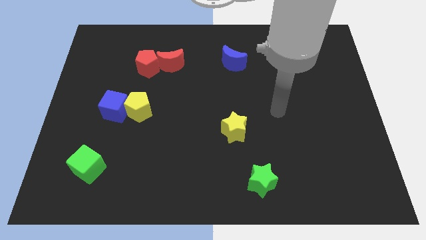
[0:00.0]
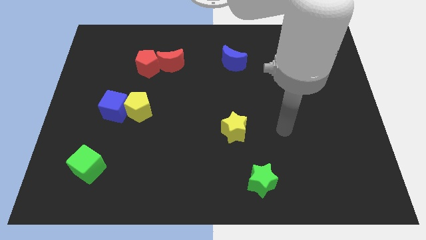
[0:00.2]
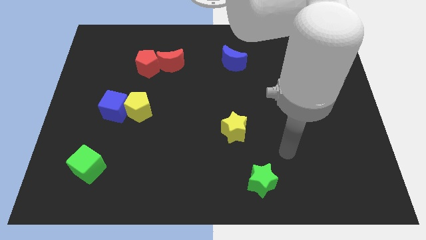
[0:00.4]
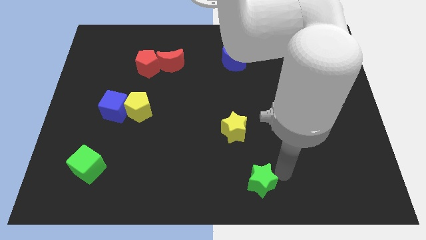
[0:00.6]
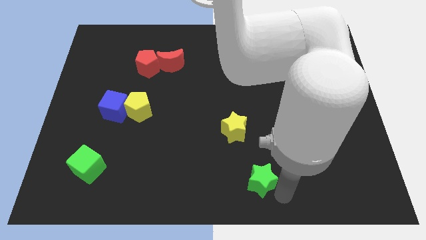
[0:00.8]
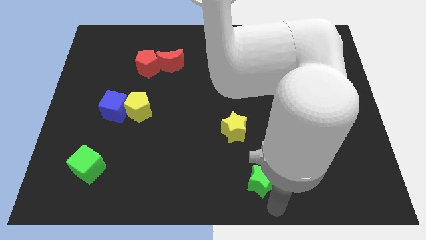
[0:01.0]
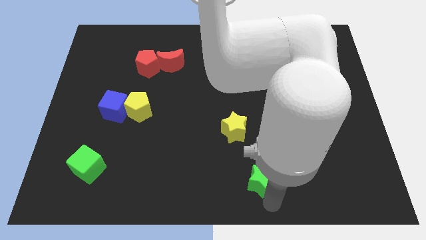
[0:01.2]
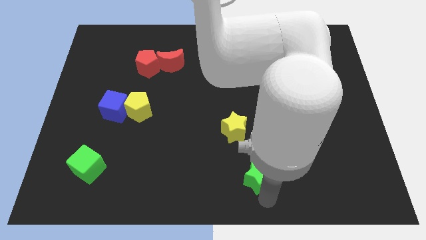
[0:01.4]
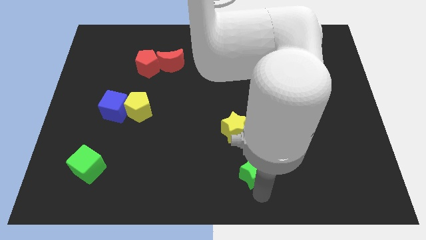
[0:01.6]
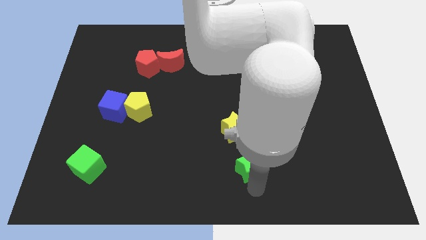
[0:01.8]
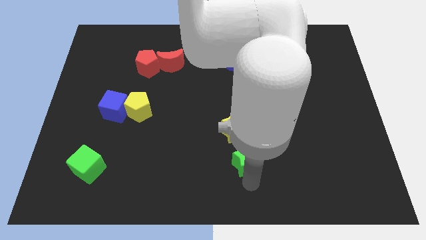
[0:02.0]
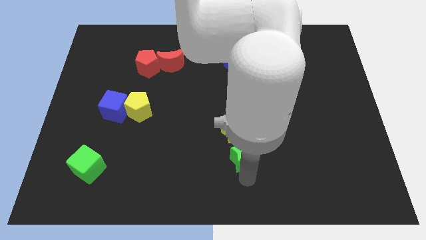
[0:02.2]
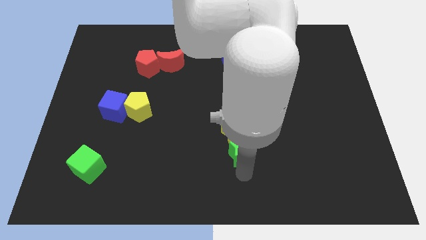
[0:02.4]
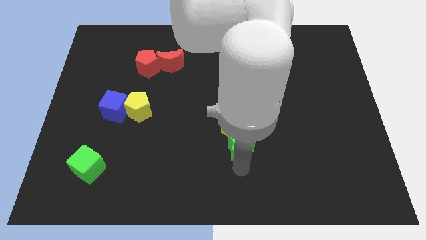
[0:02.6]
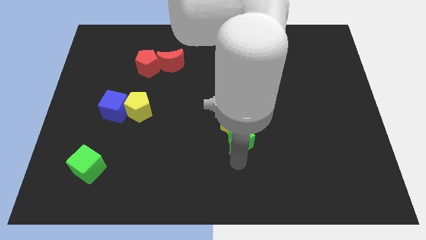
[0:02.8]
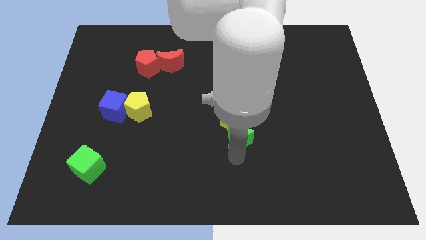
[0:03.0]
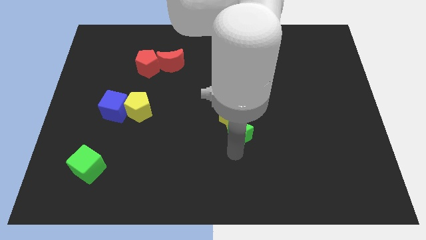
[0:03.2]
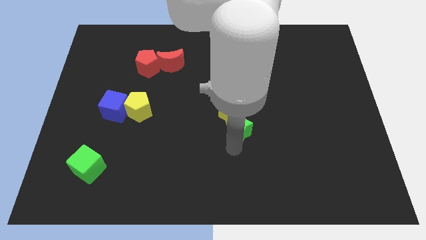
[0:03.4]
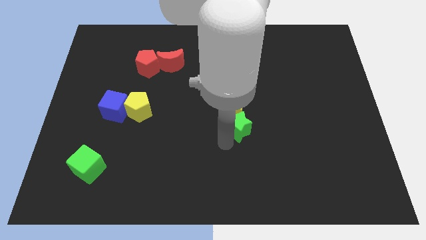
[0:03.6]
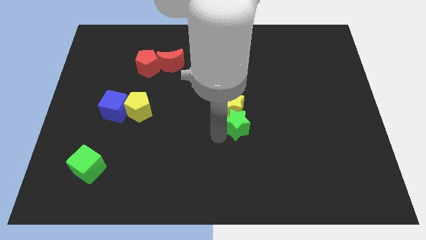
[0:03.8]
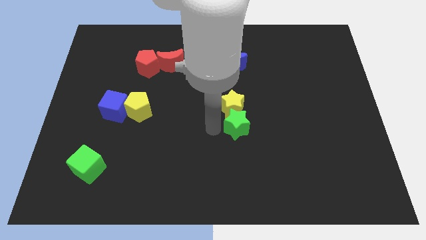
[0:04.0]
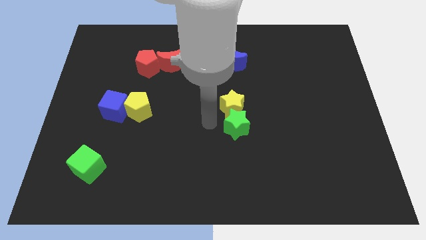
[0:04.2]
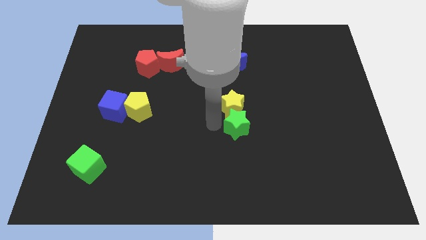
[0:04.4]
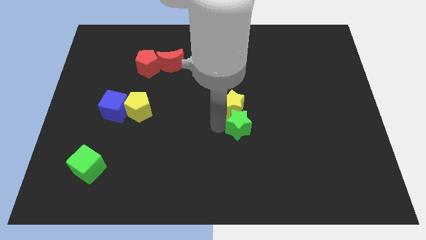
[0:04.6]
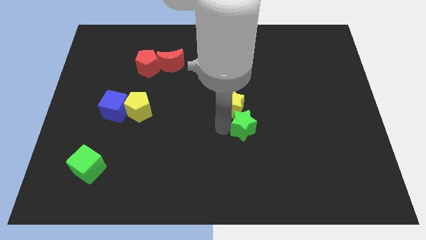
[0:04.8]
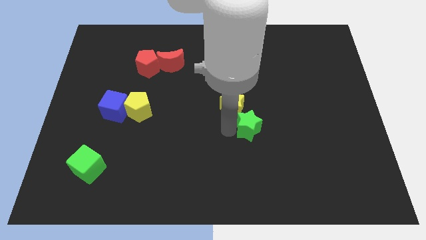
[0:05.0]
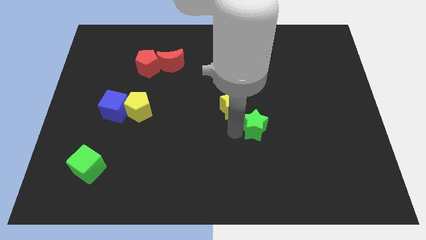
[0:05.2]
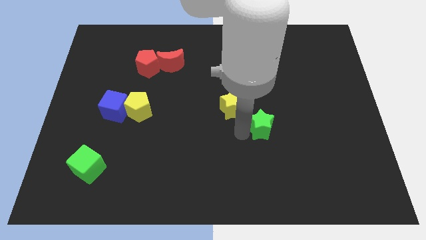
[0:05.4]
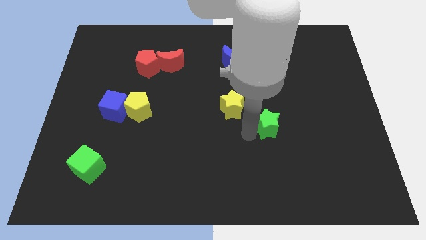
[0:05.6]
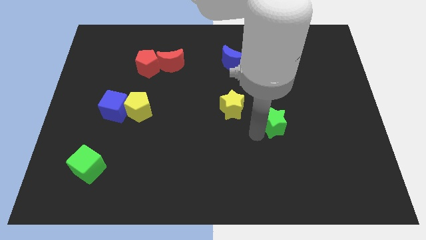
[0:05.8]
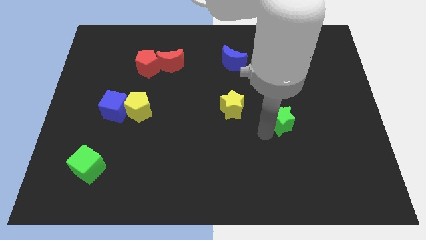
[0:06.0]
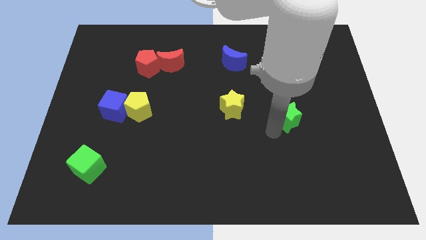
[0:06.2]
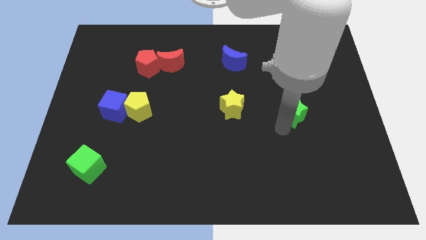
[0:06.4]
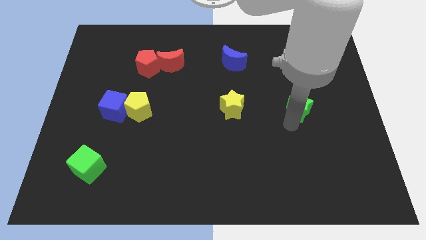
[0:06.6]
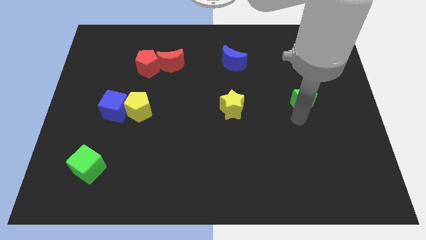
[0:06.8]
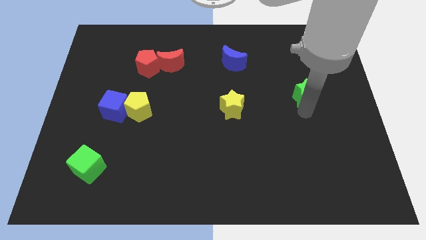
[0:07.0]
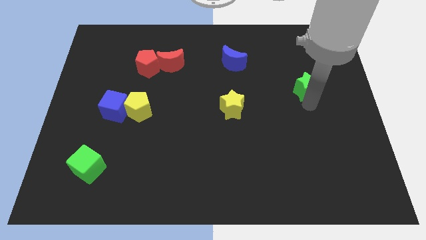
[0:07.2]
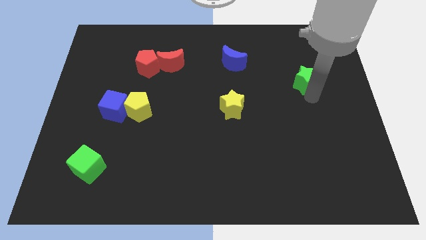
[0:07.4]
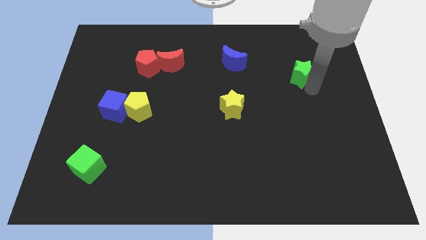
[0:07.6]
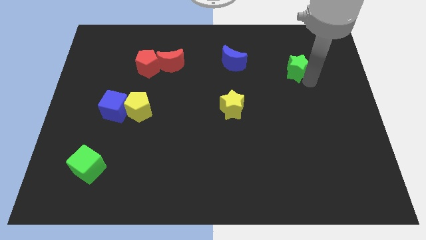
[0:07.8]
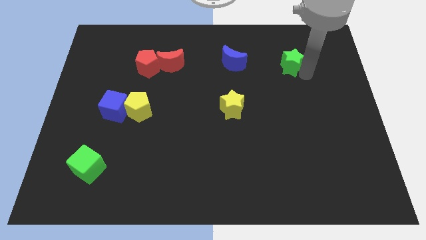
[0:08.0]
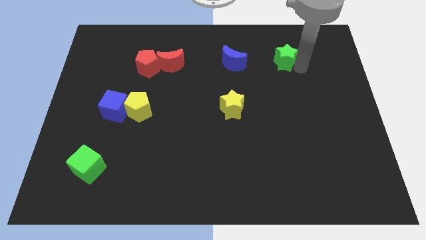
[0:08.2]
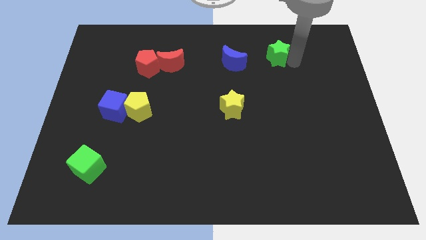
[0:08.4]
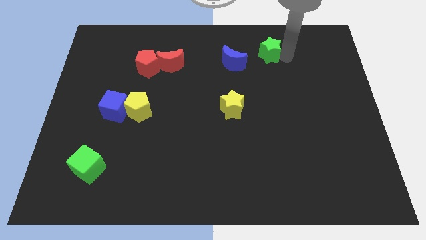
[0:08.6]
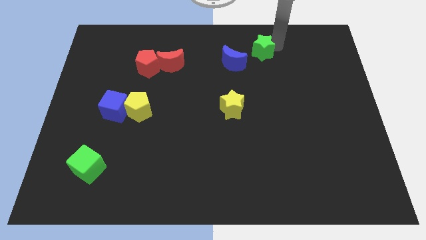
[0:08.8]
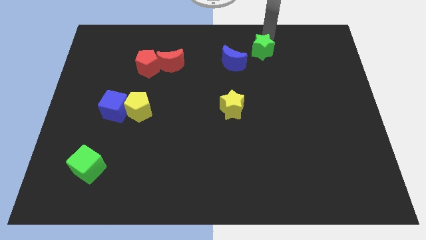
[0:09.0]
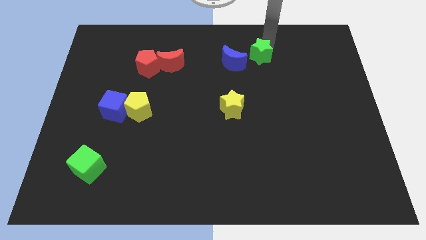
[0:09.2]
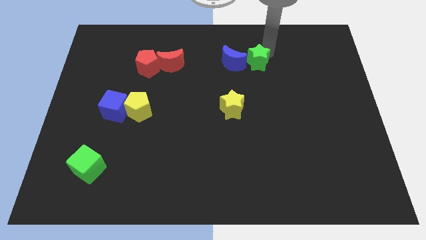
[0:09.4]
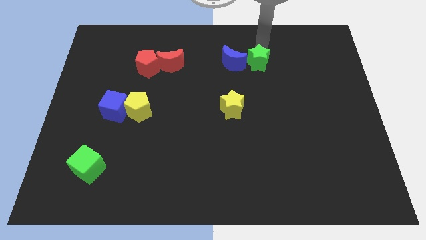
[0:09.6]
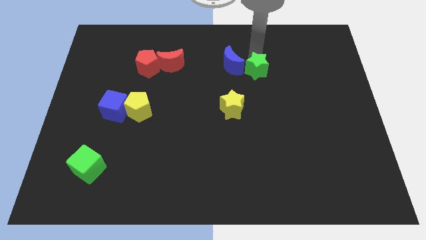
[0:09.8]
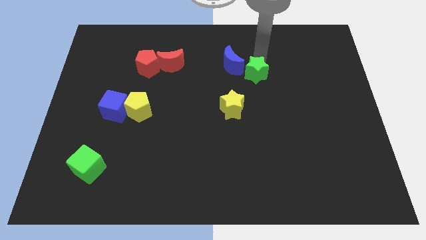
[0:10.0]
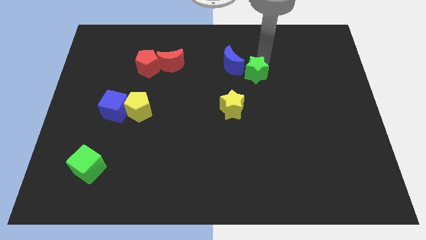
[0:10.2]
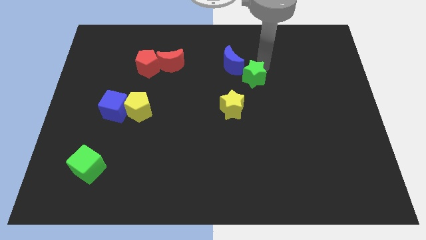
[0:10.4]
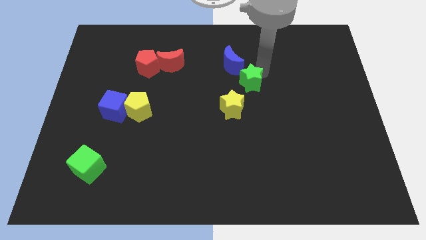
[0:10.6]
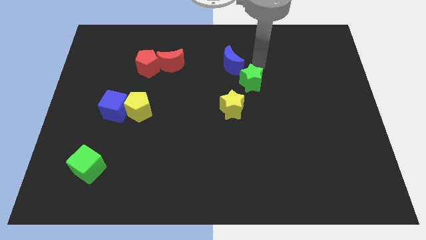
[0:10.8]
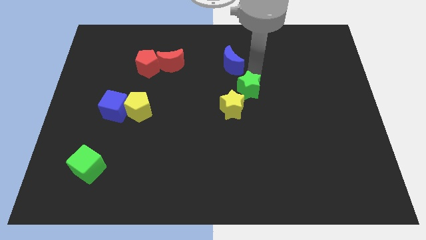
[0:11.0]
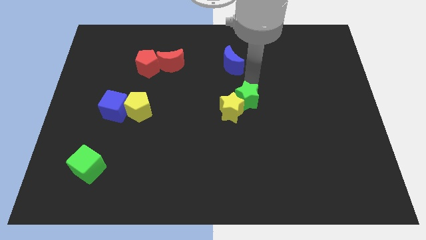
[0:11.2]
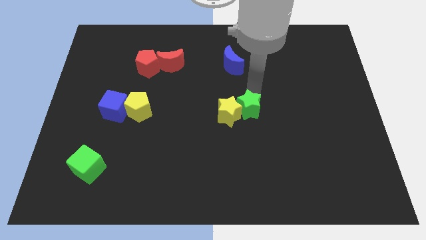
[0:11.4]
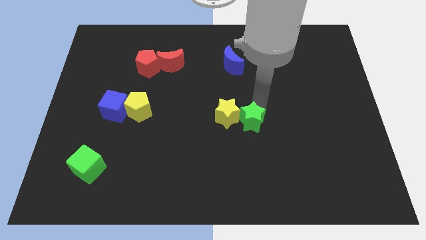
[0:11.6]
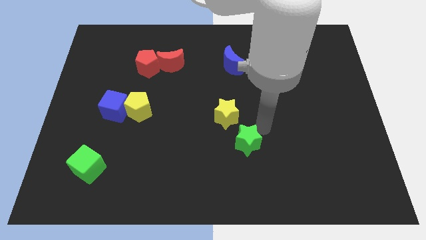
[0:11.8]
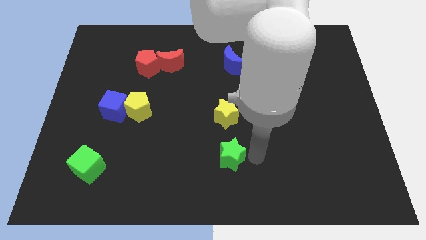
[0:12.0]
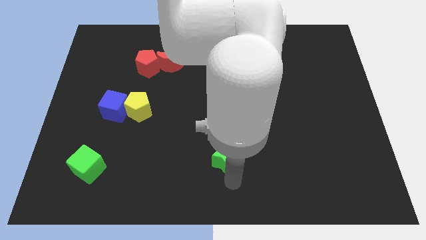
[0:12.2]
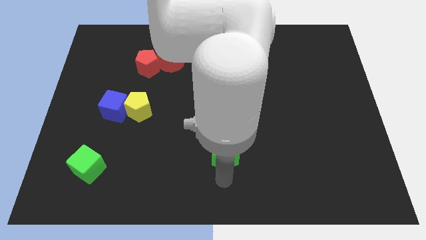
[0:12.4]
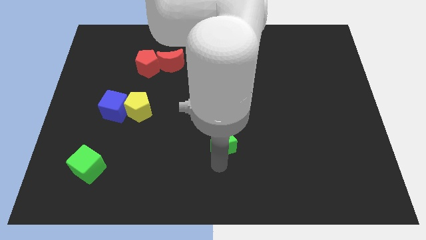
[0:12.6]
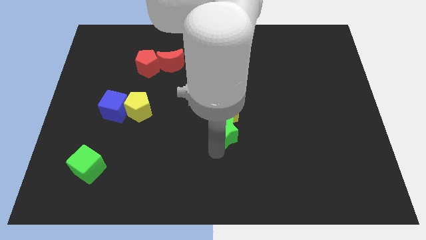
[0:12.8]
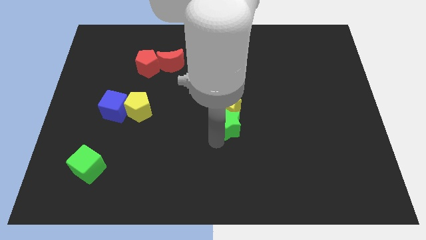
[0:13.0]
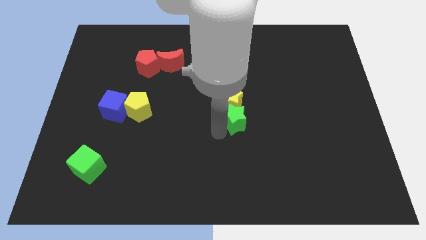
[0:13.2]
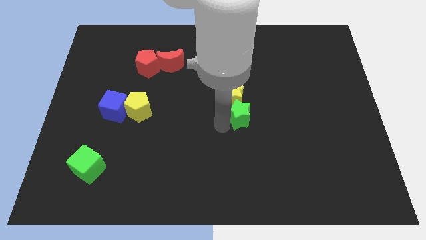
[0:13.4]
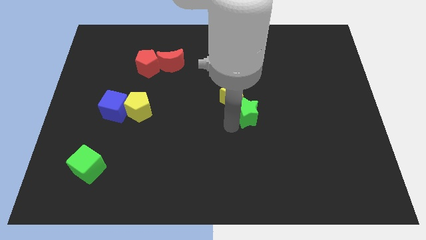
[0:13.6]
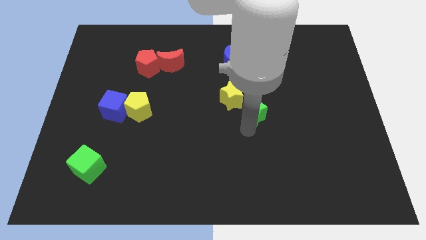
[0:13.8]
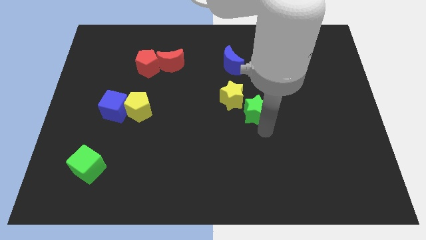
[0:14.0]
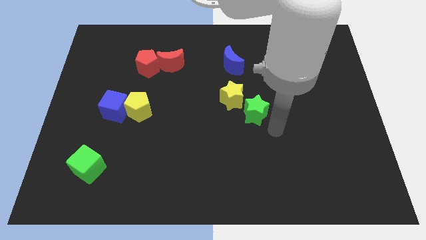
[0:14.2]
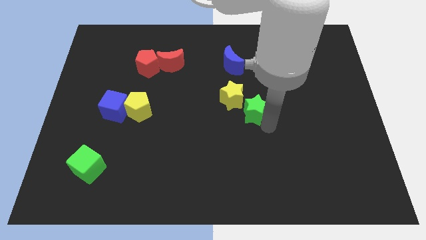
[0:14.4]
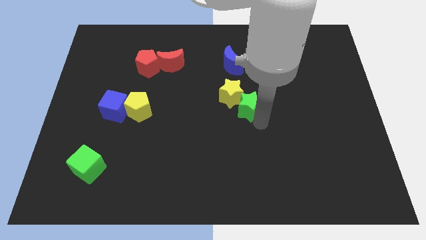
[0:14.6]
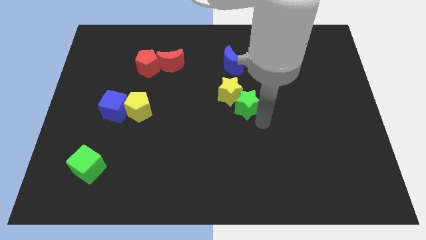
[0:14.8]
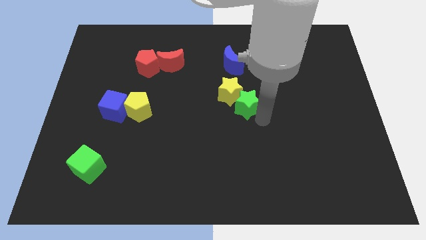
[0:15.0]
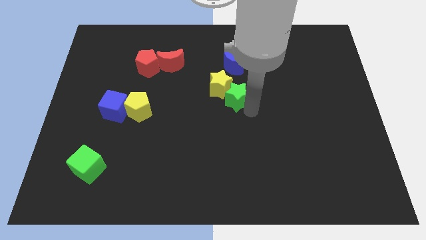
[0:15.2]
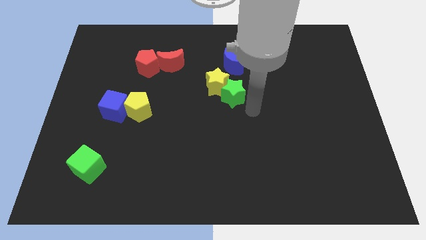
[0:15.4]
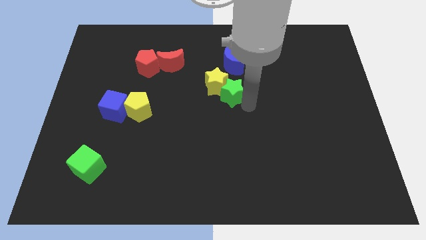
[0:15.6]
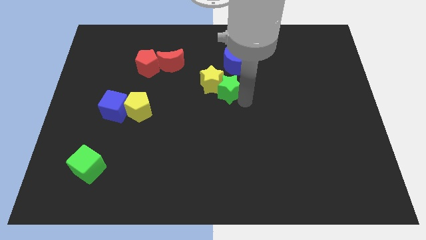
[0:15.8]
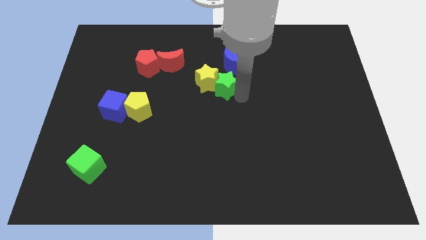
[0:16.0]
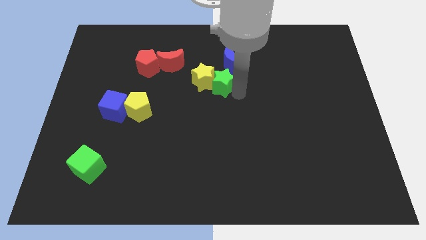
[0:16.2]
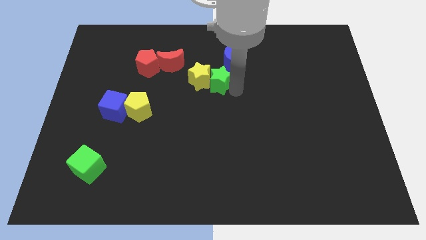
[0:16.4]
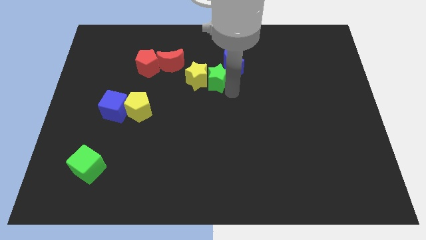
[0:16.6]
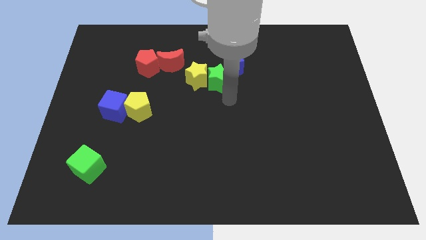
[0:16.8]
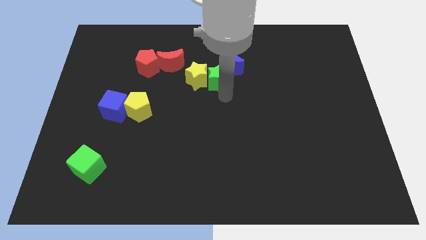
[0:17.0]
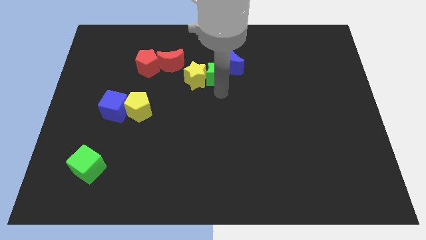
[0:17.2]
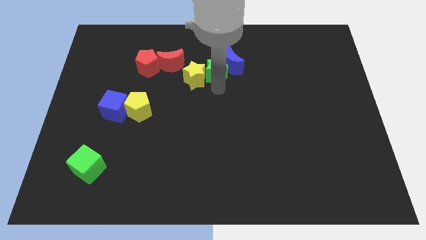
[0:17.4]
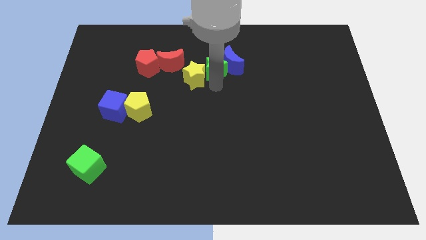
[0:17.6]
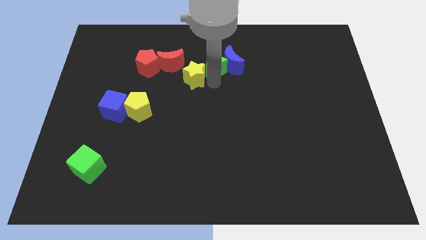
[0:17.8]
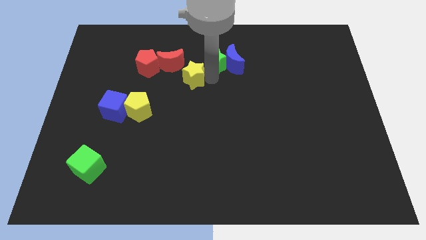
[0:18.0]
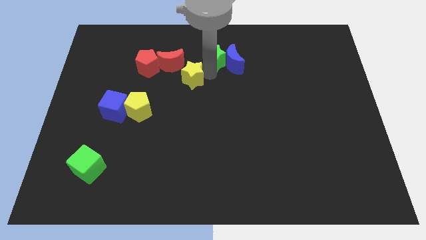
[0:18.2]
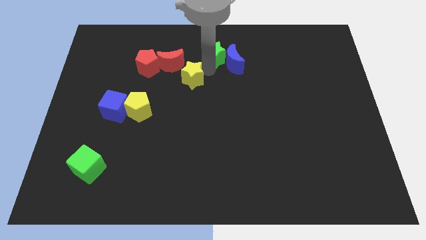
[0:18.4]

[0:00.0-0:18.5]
move the green star to the towards your base
